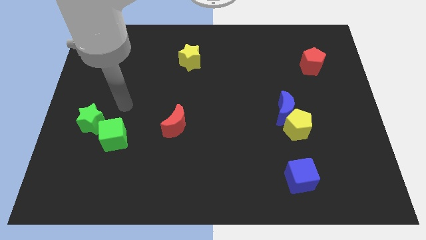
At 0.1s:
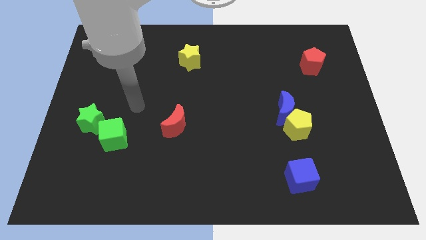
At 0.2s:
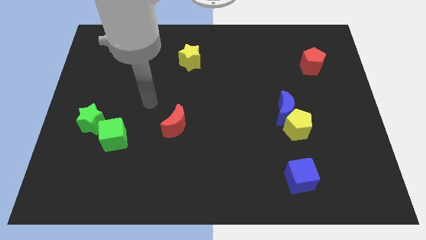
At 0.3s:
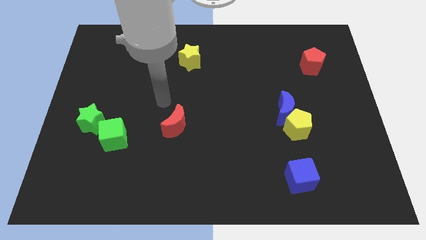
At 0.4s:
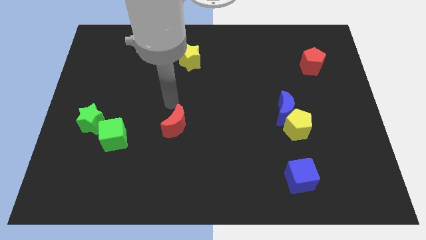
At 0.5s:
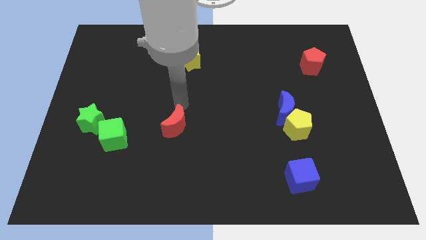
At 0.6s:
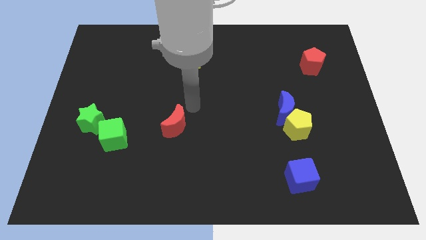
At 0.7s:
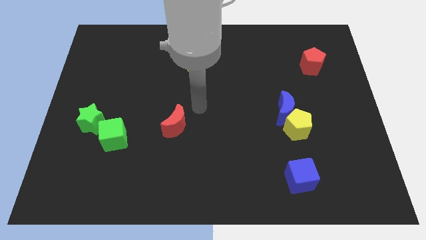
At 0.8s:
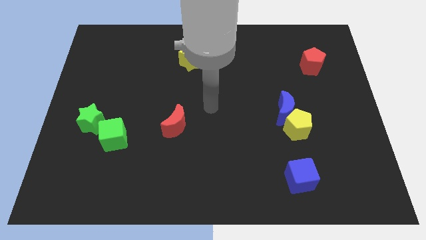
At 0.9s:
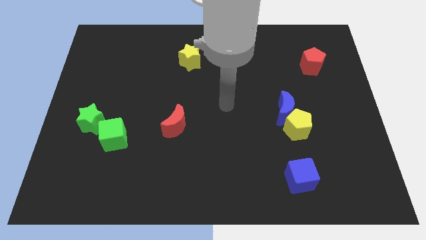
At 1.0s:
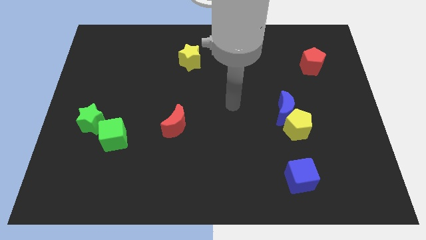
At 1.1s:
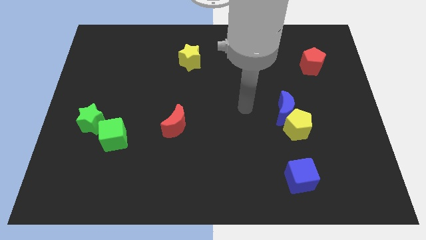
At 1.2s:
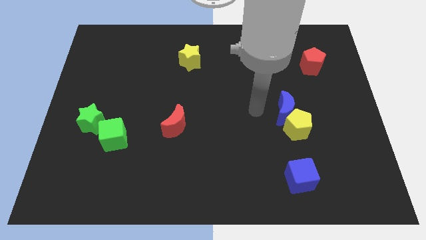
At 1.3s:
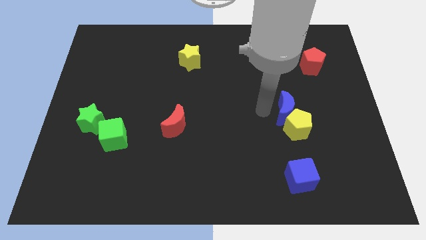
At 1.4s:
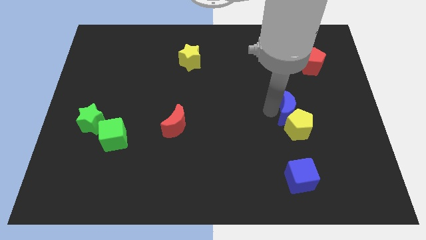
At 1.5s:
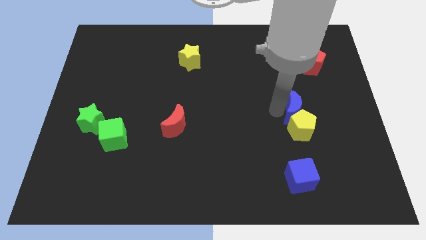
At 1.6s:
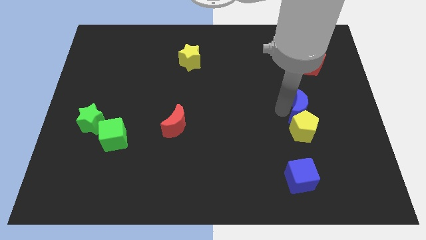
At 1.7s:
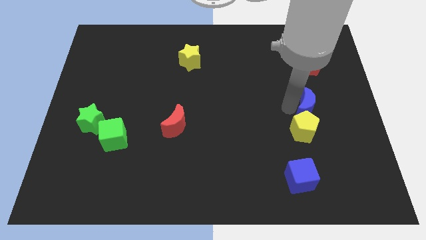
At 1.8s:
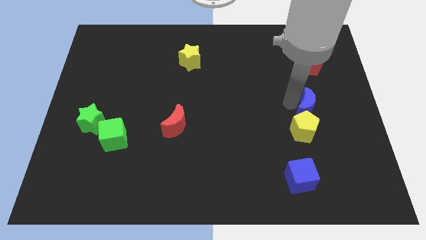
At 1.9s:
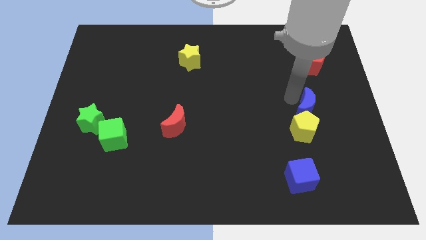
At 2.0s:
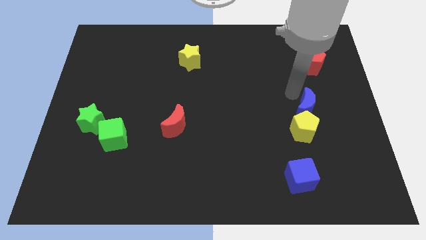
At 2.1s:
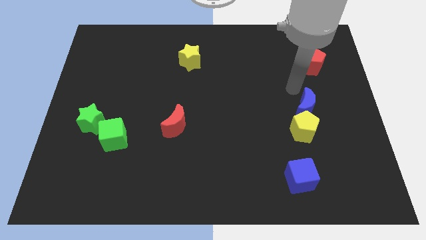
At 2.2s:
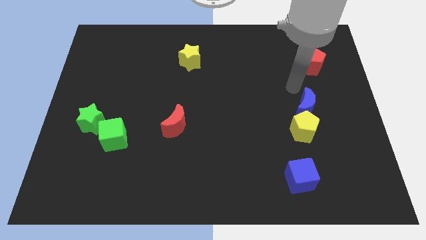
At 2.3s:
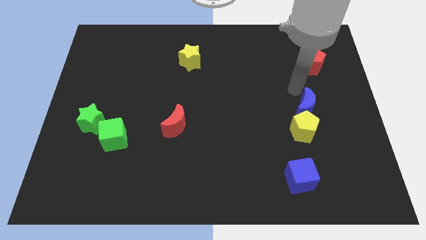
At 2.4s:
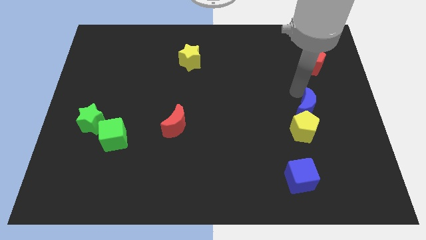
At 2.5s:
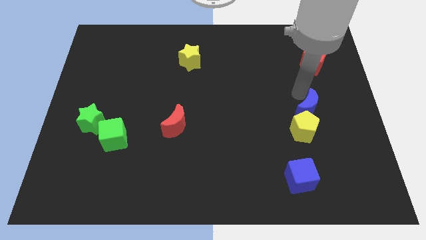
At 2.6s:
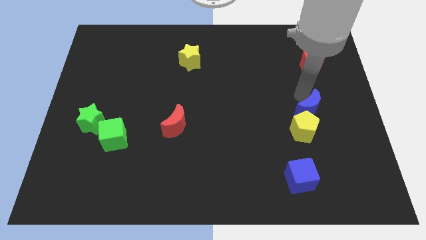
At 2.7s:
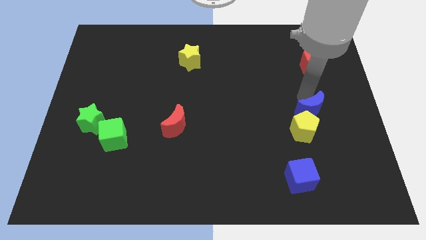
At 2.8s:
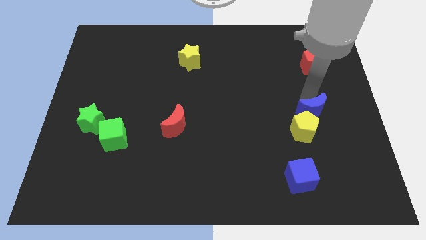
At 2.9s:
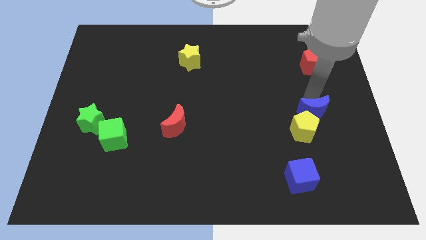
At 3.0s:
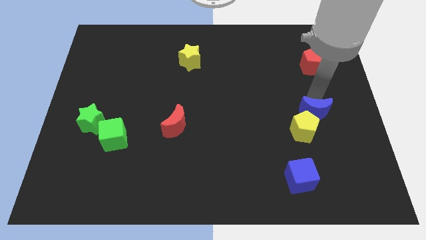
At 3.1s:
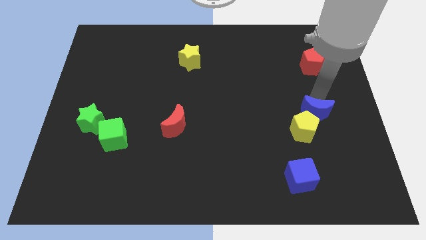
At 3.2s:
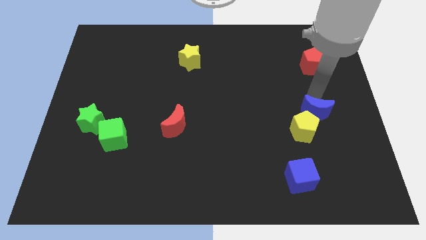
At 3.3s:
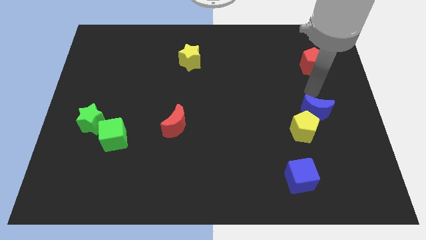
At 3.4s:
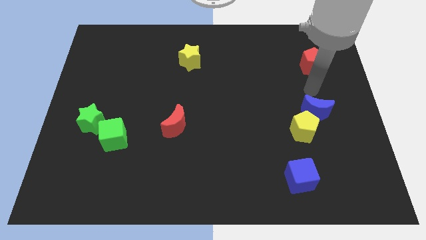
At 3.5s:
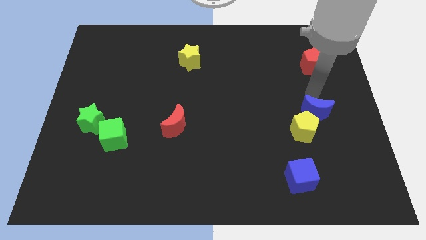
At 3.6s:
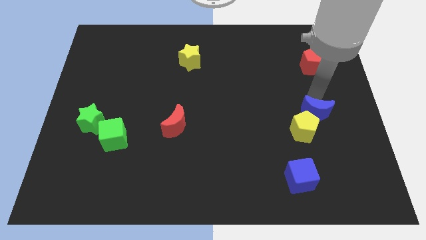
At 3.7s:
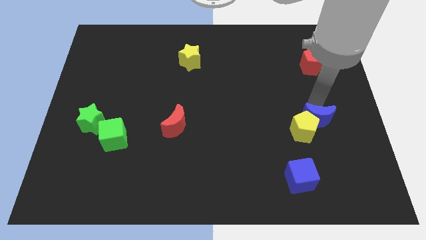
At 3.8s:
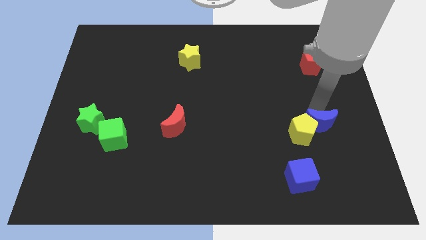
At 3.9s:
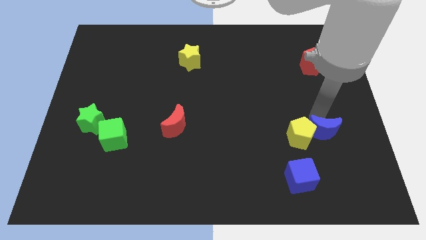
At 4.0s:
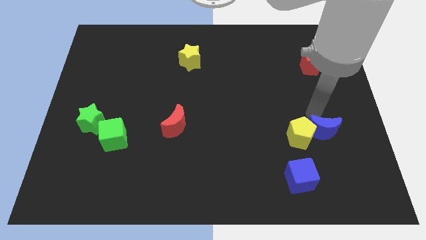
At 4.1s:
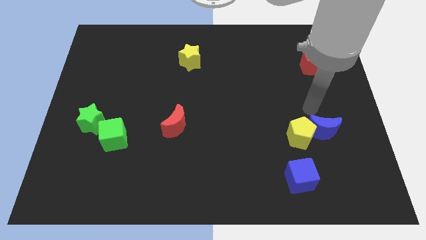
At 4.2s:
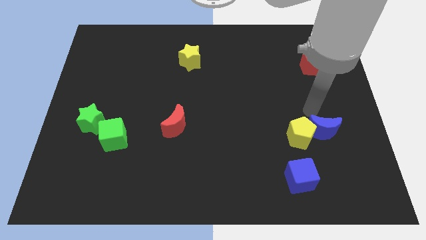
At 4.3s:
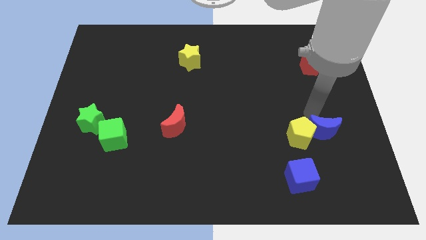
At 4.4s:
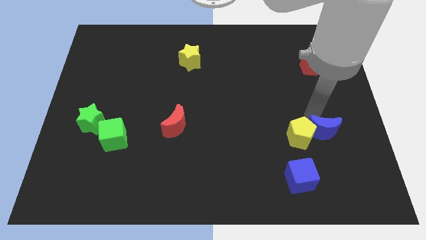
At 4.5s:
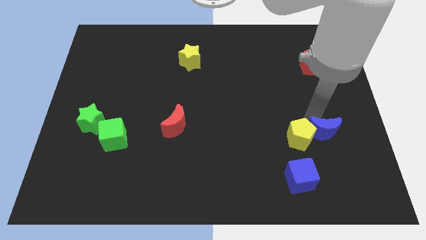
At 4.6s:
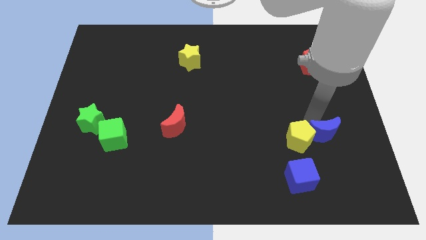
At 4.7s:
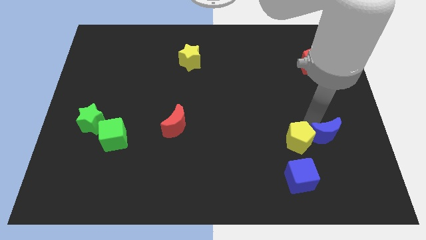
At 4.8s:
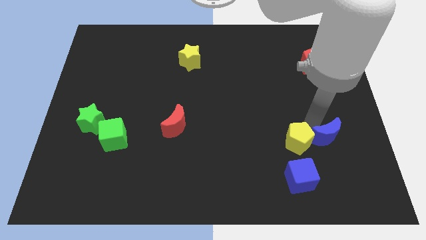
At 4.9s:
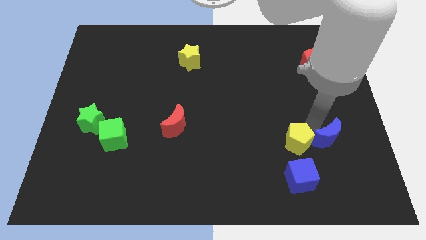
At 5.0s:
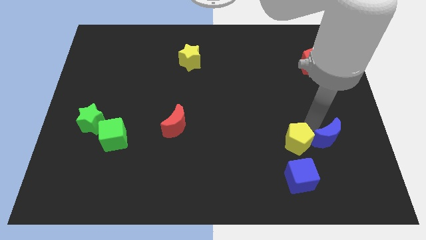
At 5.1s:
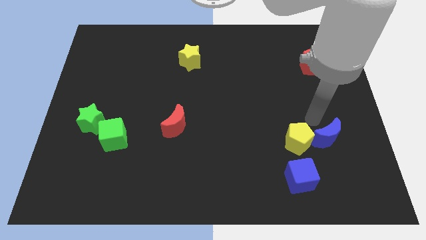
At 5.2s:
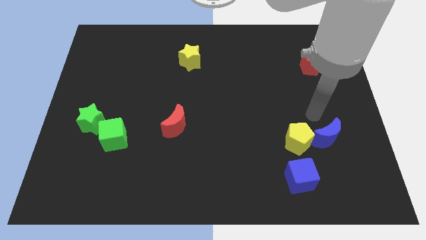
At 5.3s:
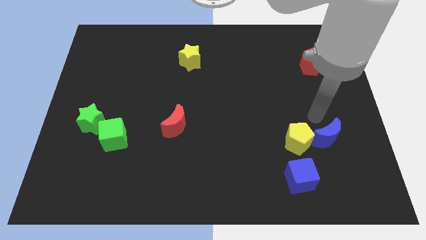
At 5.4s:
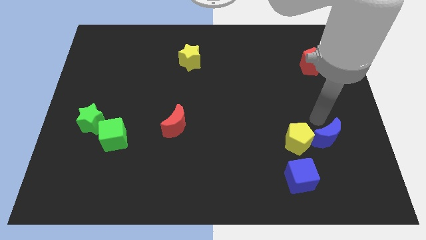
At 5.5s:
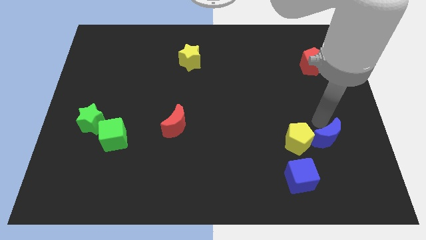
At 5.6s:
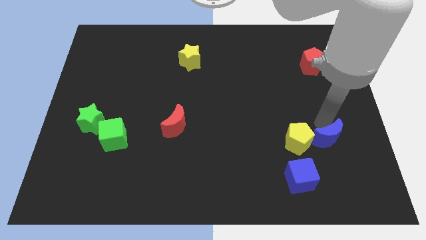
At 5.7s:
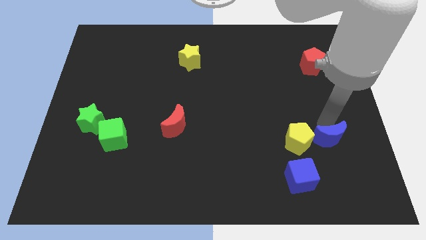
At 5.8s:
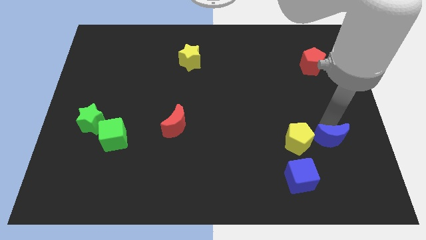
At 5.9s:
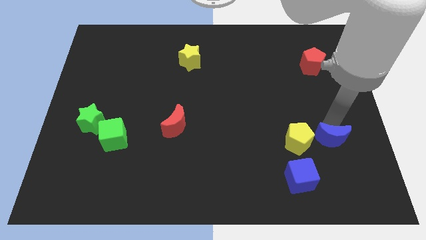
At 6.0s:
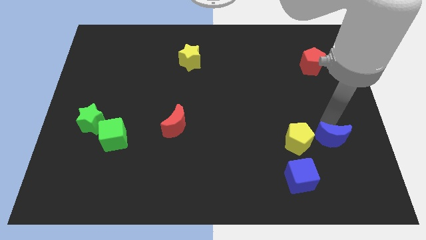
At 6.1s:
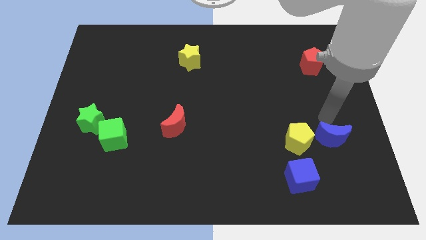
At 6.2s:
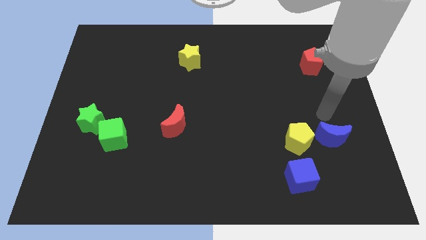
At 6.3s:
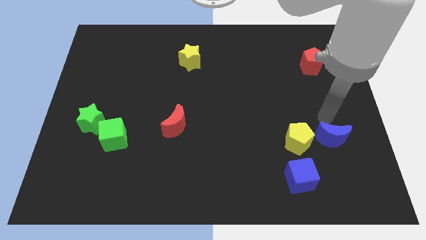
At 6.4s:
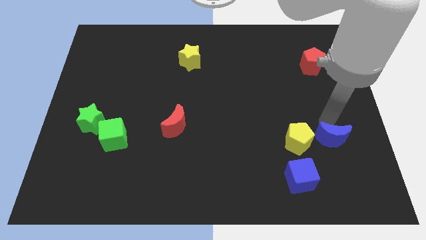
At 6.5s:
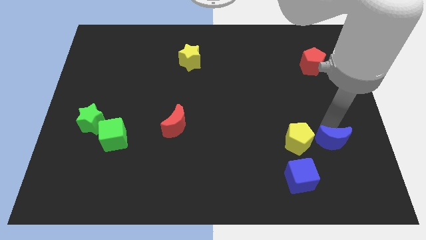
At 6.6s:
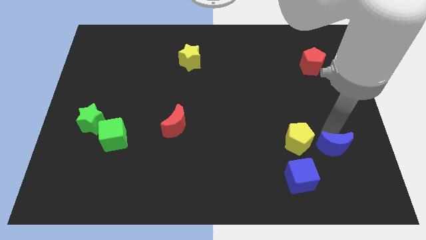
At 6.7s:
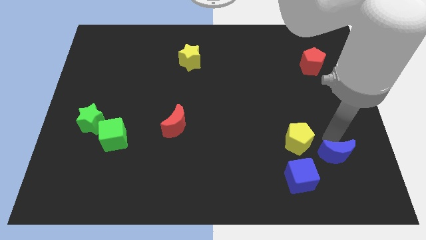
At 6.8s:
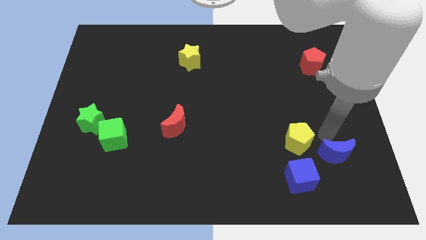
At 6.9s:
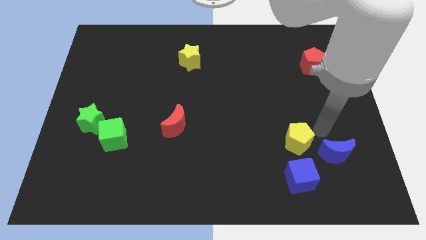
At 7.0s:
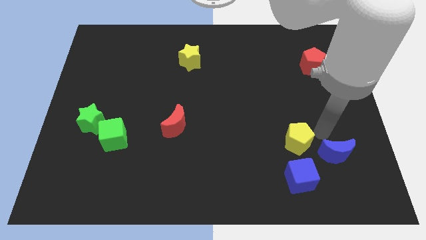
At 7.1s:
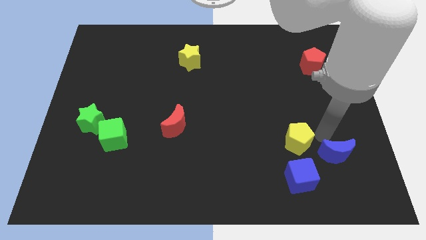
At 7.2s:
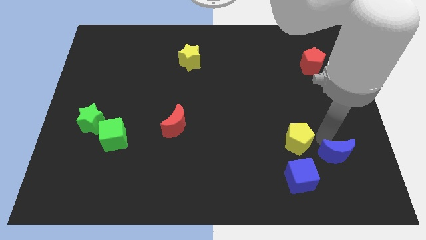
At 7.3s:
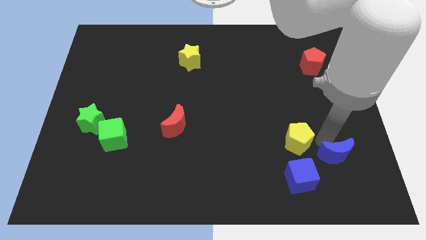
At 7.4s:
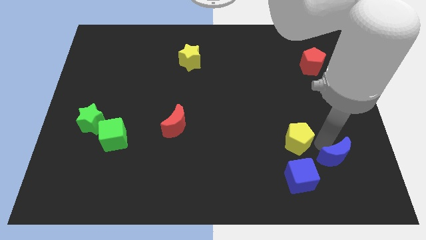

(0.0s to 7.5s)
push the blue moon right of the blue cube

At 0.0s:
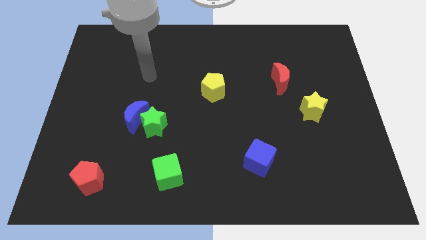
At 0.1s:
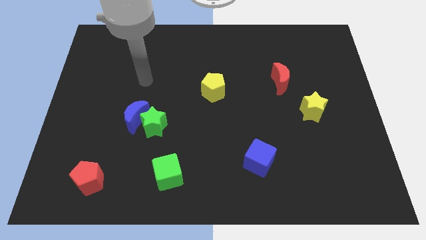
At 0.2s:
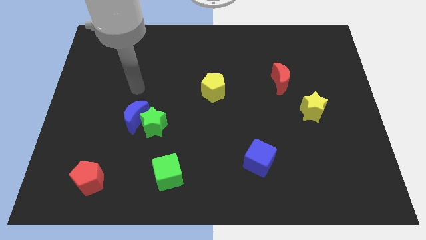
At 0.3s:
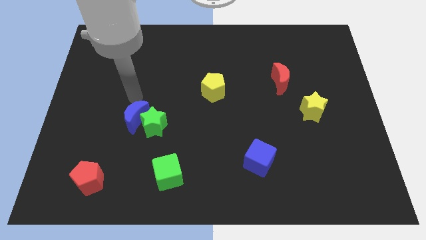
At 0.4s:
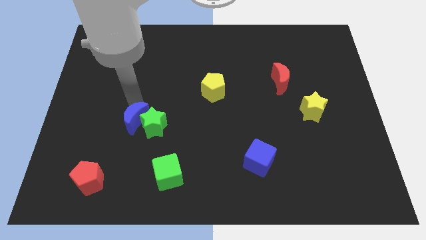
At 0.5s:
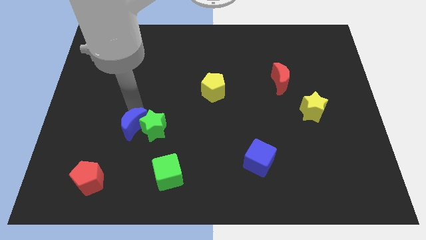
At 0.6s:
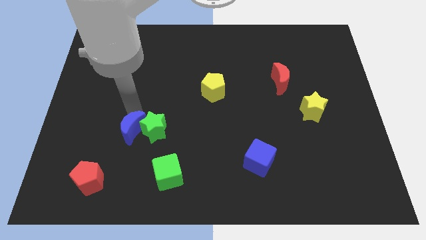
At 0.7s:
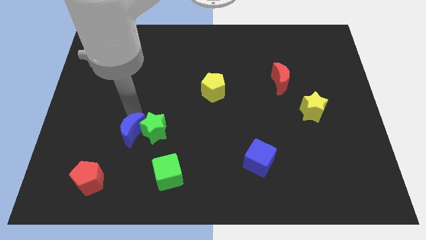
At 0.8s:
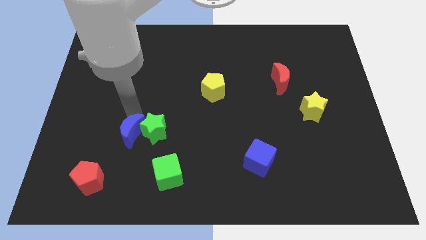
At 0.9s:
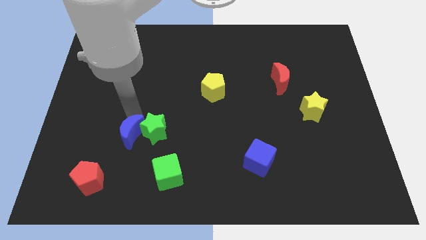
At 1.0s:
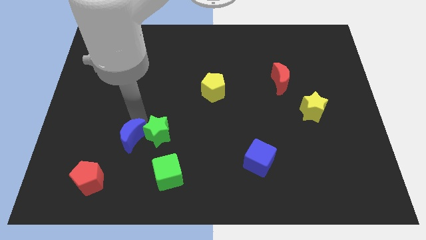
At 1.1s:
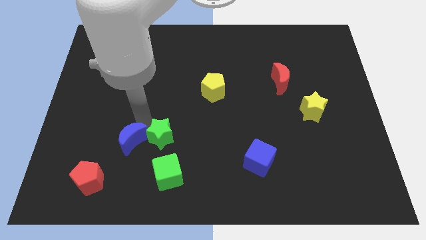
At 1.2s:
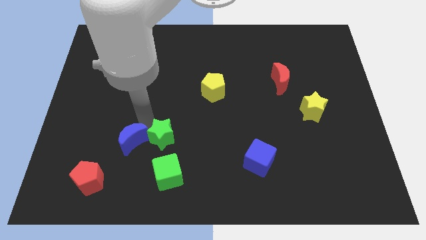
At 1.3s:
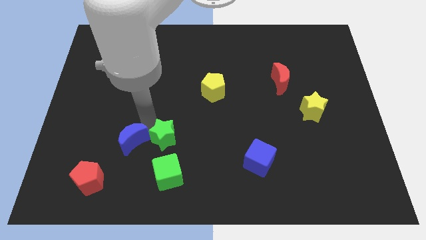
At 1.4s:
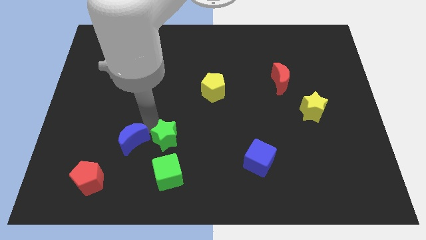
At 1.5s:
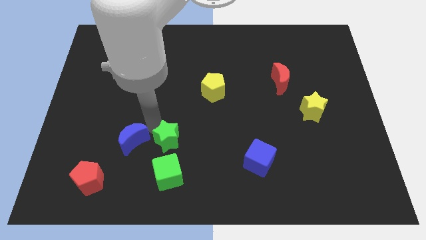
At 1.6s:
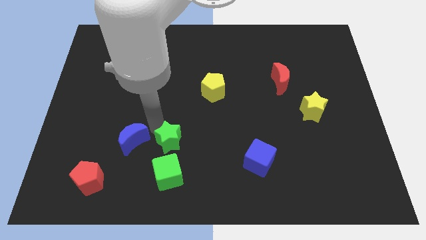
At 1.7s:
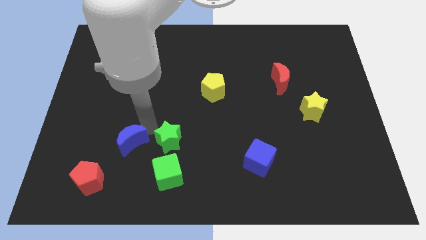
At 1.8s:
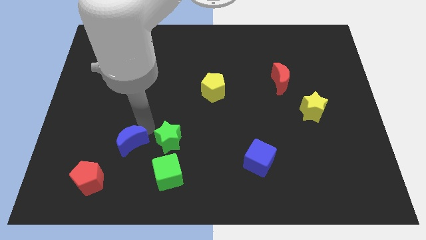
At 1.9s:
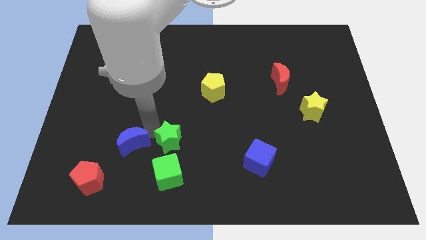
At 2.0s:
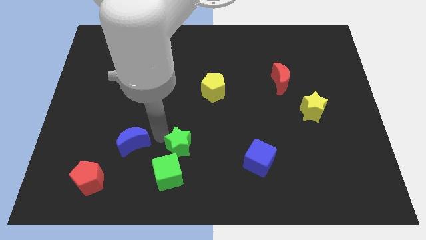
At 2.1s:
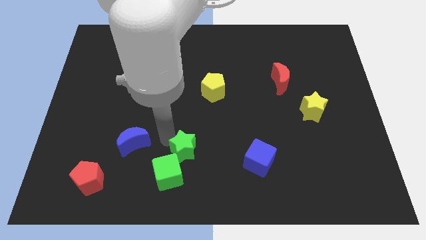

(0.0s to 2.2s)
slide the green star left of the blue cube
